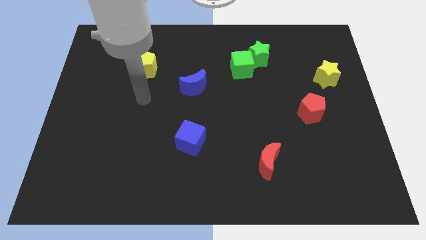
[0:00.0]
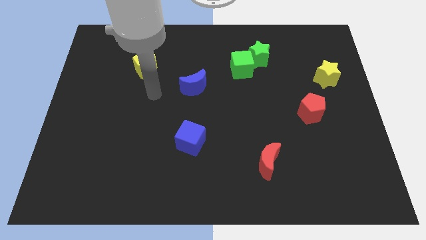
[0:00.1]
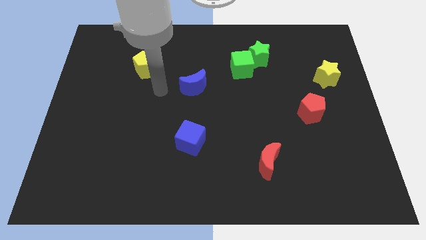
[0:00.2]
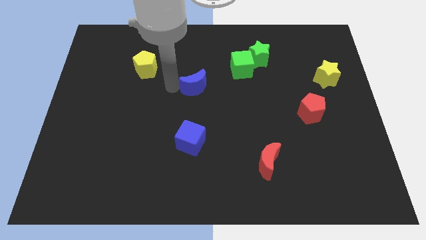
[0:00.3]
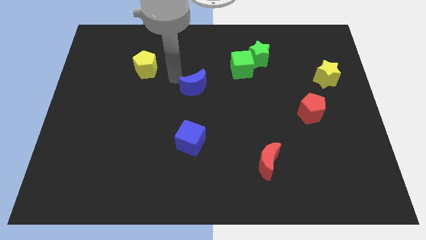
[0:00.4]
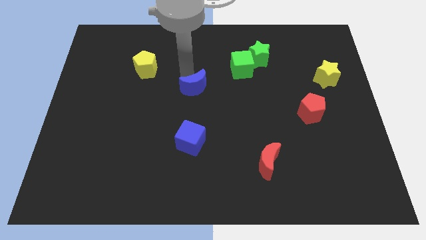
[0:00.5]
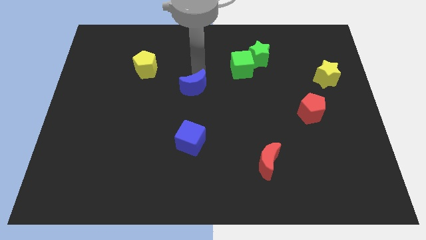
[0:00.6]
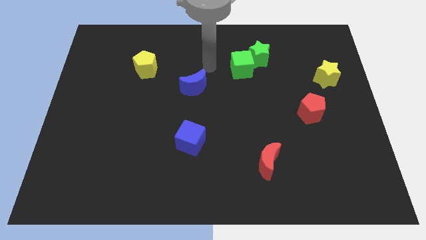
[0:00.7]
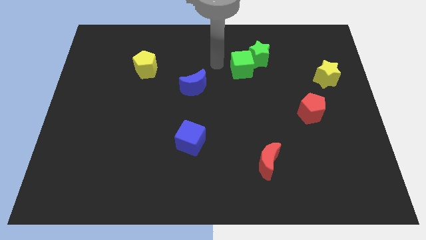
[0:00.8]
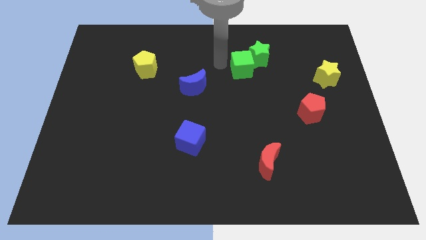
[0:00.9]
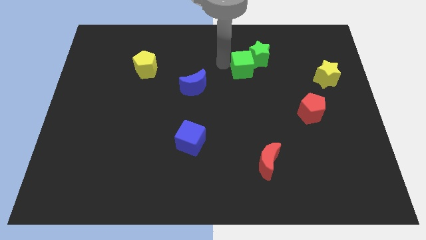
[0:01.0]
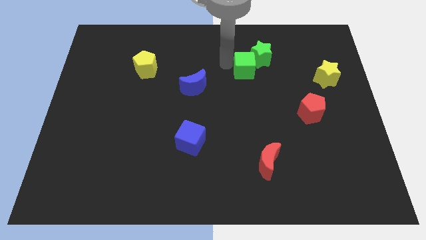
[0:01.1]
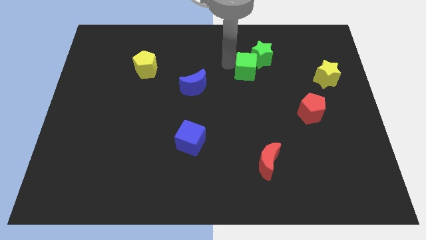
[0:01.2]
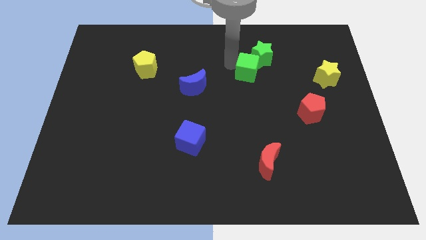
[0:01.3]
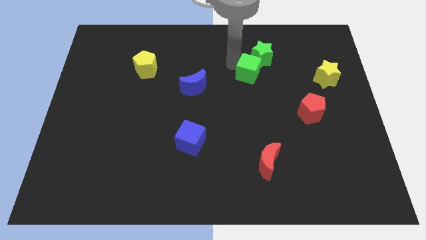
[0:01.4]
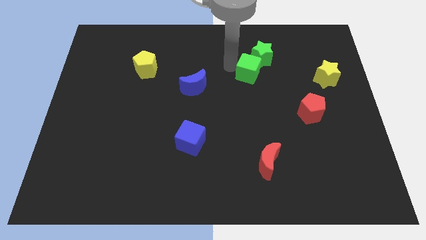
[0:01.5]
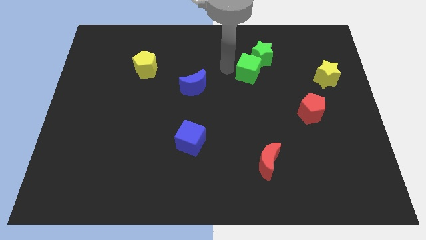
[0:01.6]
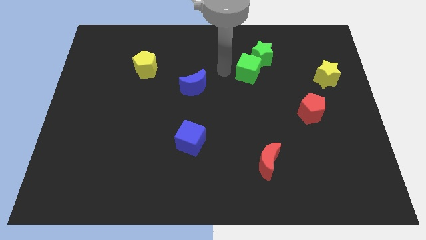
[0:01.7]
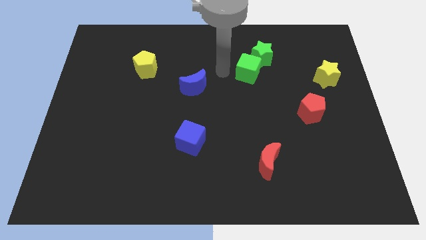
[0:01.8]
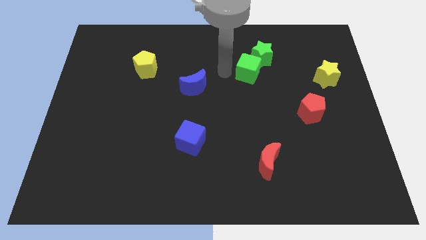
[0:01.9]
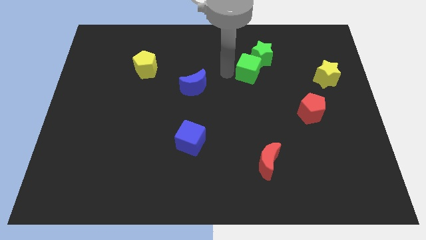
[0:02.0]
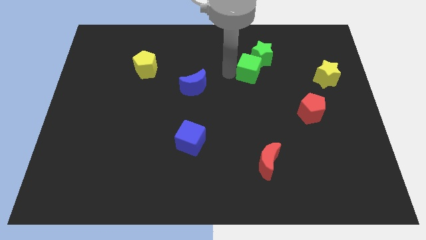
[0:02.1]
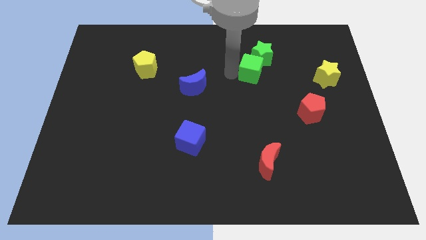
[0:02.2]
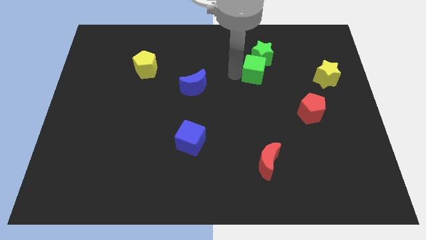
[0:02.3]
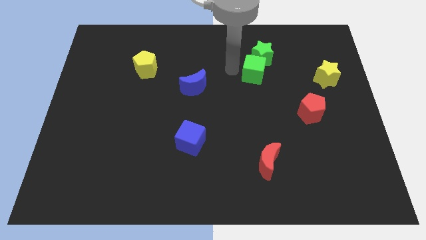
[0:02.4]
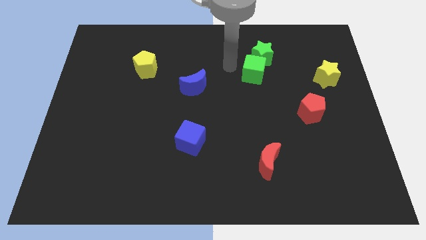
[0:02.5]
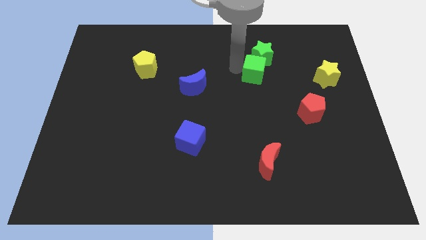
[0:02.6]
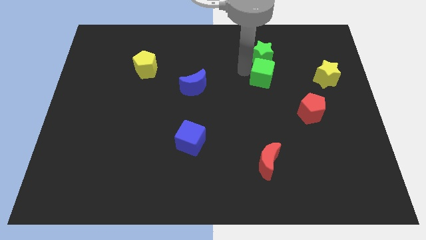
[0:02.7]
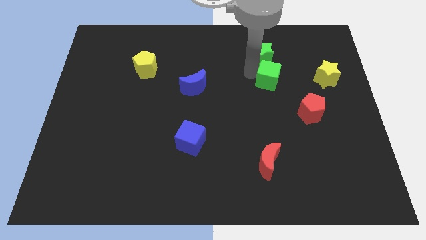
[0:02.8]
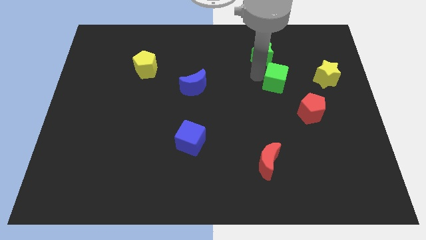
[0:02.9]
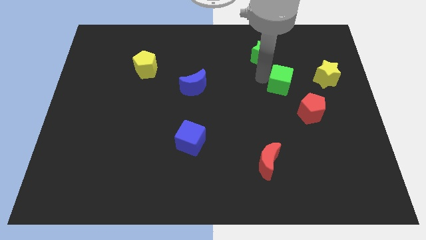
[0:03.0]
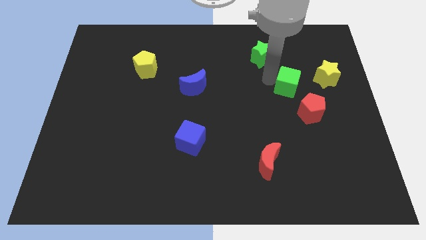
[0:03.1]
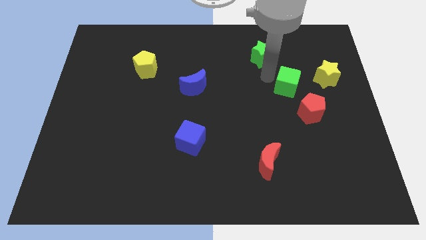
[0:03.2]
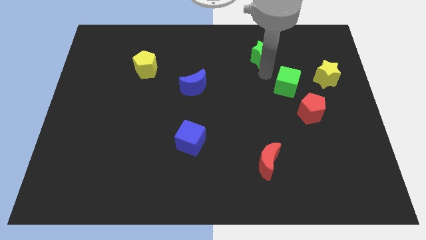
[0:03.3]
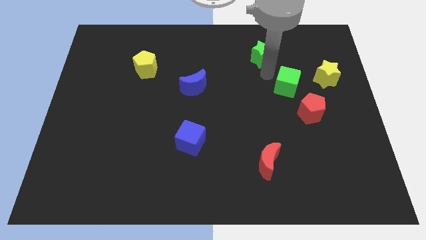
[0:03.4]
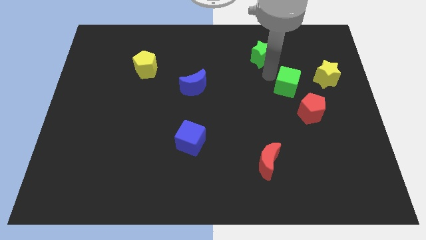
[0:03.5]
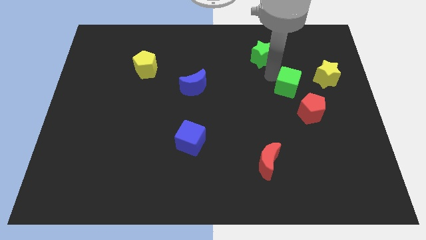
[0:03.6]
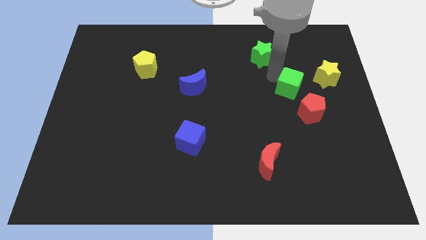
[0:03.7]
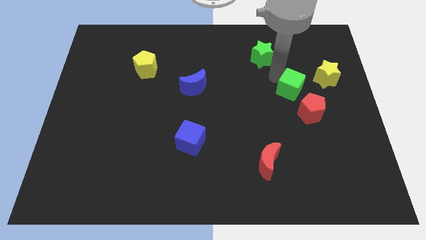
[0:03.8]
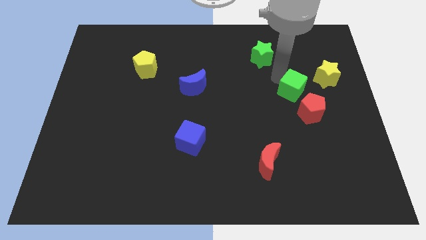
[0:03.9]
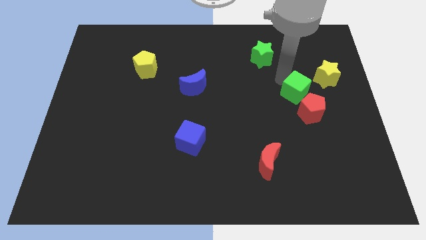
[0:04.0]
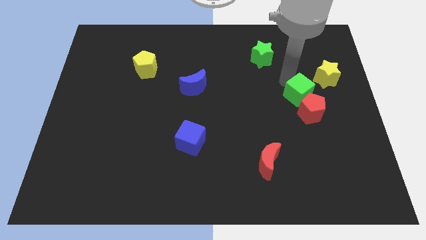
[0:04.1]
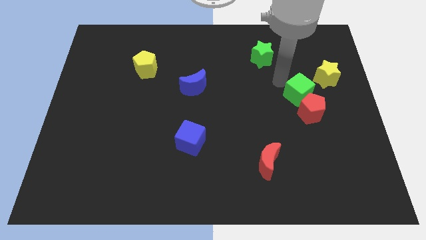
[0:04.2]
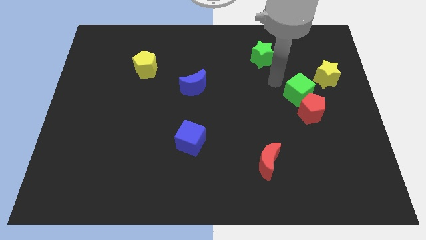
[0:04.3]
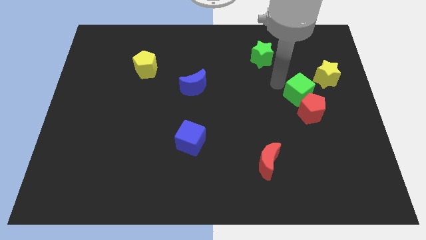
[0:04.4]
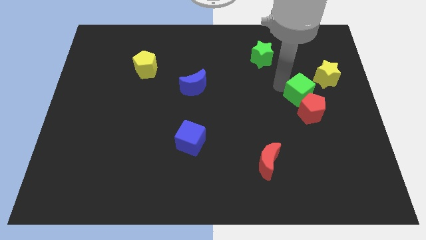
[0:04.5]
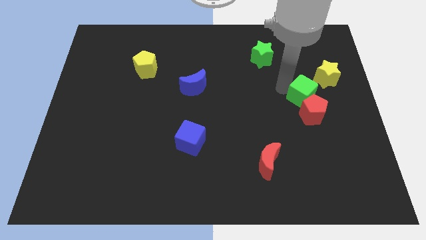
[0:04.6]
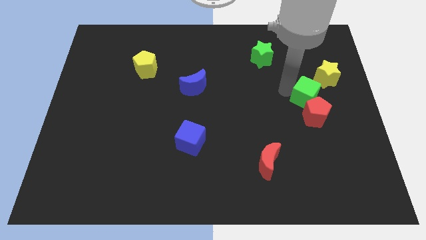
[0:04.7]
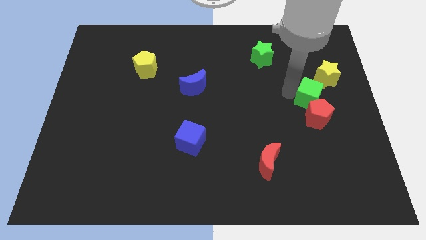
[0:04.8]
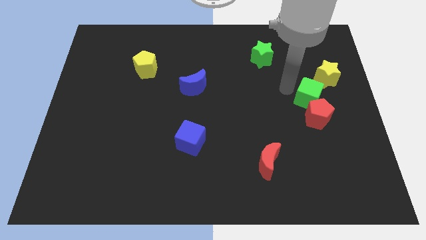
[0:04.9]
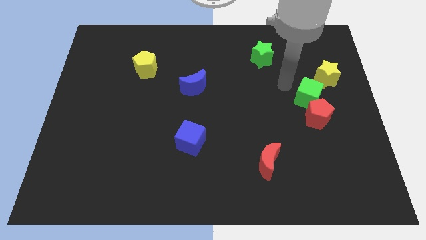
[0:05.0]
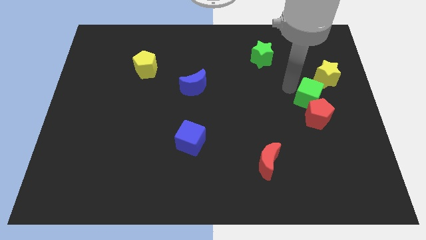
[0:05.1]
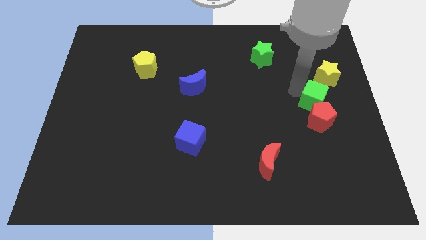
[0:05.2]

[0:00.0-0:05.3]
slide the green cube to the bottom of the yellow star

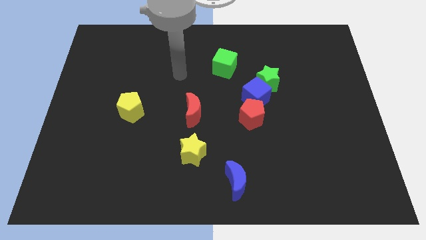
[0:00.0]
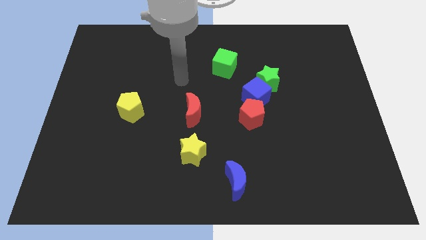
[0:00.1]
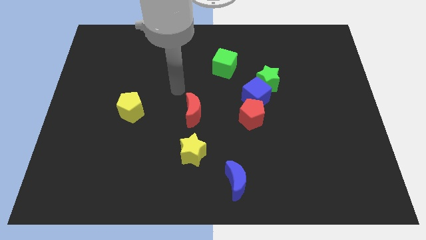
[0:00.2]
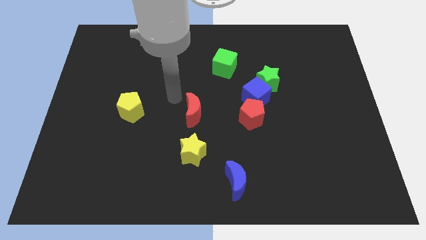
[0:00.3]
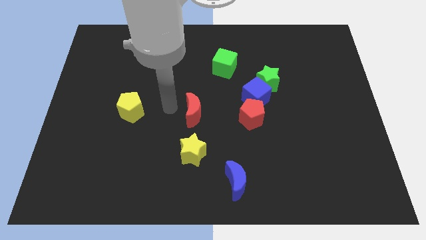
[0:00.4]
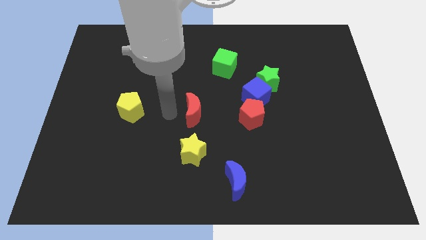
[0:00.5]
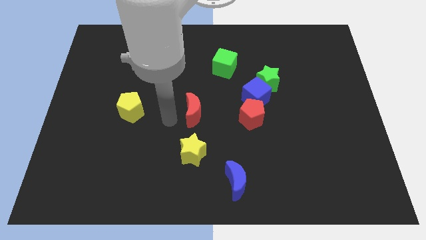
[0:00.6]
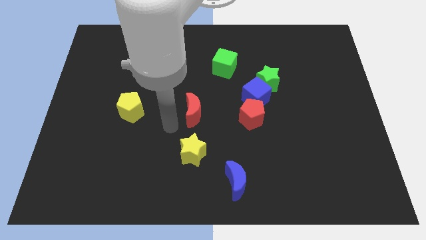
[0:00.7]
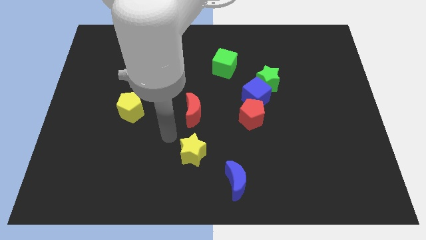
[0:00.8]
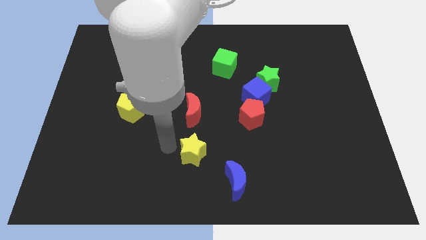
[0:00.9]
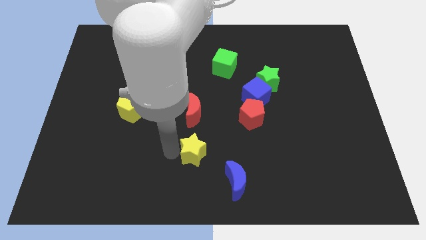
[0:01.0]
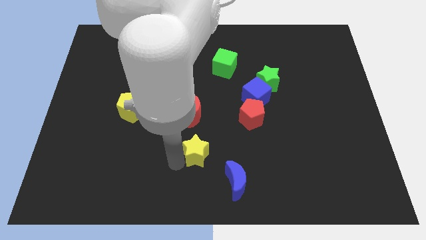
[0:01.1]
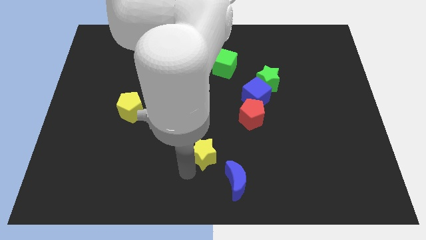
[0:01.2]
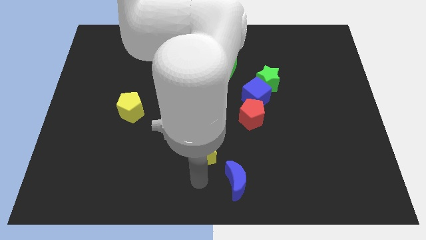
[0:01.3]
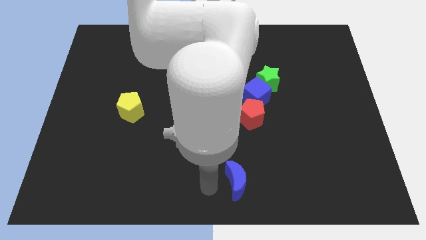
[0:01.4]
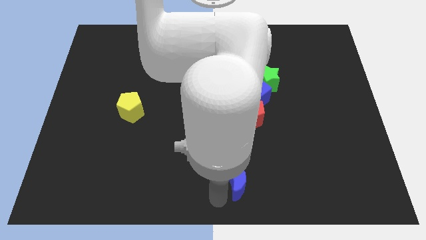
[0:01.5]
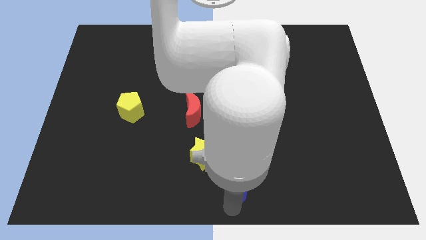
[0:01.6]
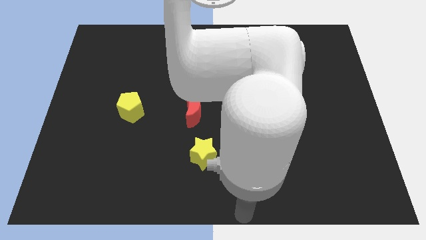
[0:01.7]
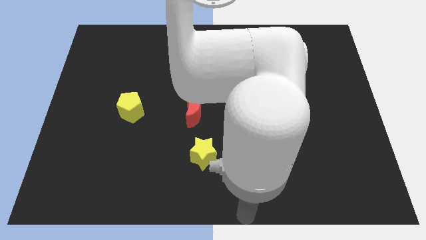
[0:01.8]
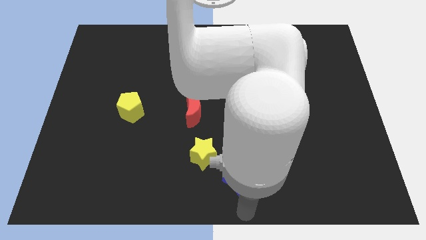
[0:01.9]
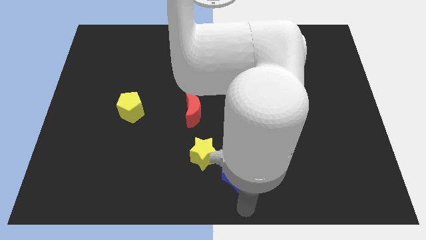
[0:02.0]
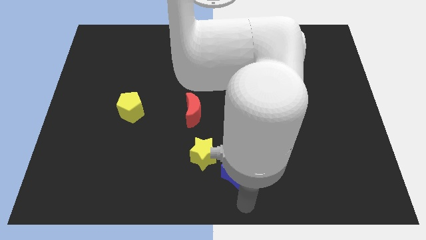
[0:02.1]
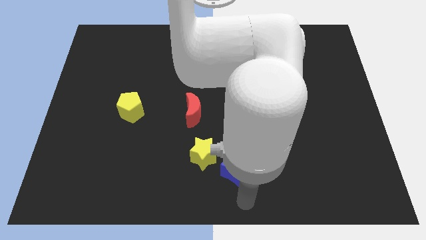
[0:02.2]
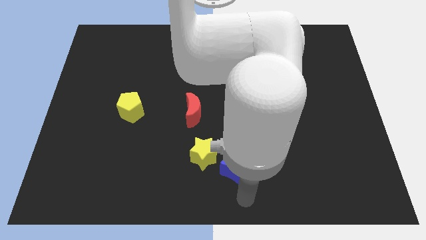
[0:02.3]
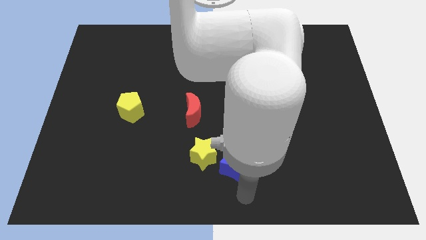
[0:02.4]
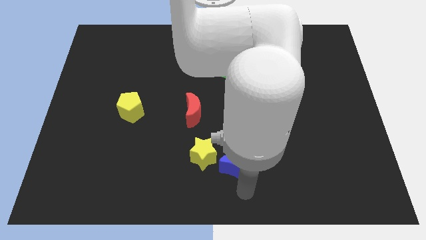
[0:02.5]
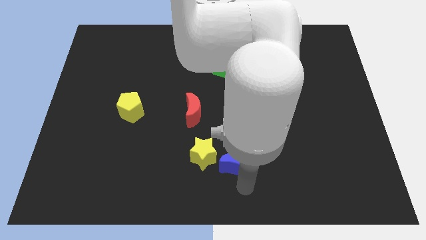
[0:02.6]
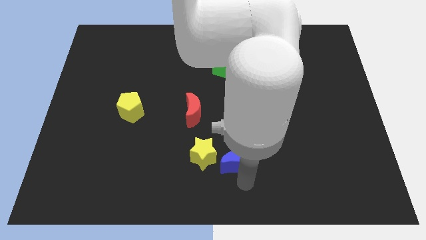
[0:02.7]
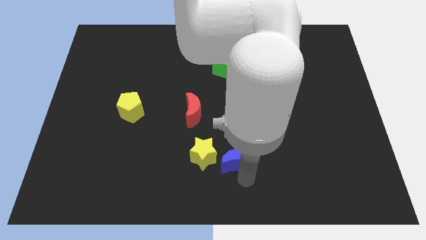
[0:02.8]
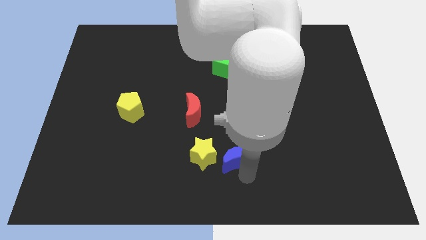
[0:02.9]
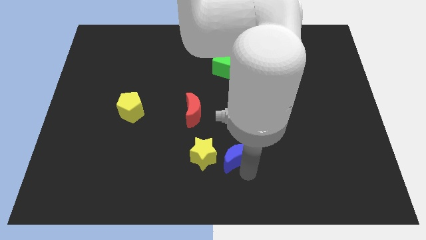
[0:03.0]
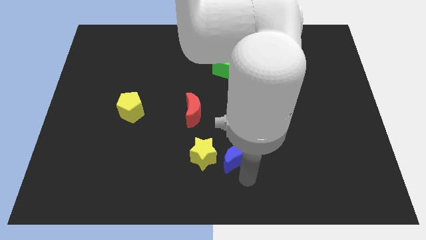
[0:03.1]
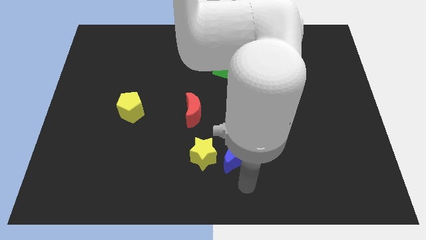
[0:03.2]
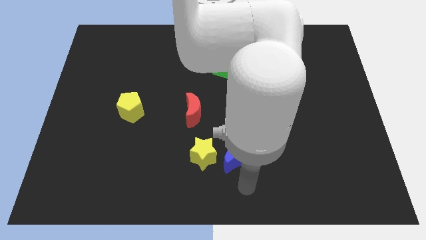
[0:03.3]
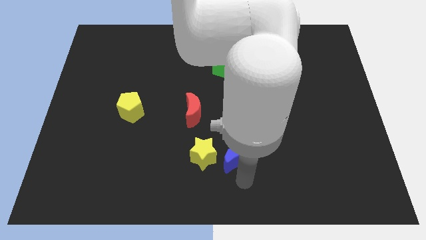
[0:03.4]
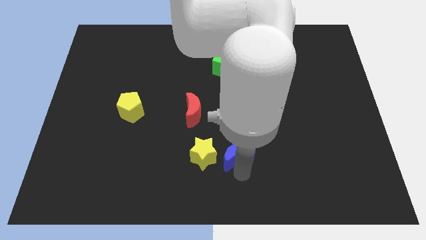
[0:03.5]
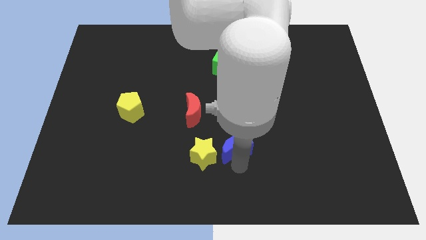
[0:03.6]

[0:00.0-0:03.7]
push the blue moon to the bottom left of the red pentagon
